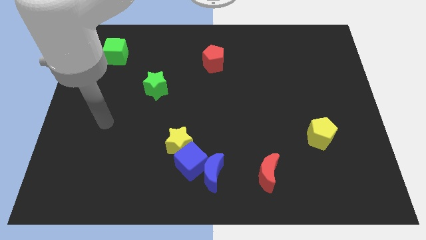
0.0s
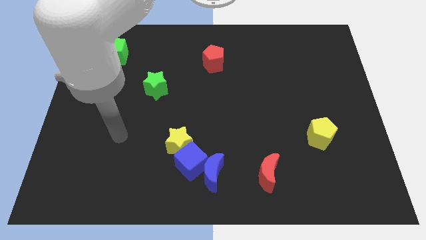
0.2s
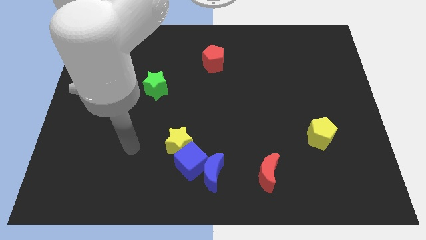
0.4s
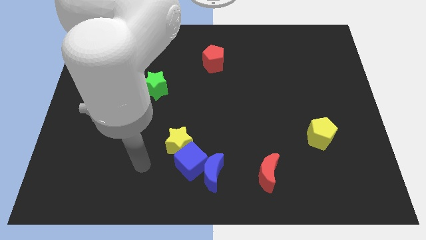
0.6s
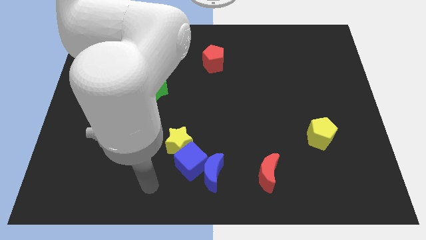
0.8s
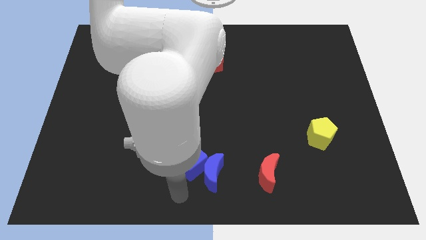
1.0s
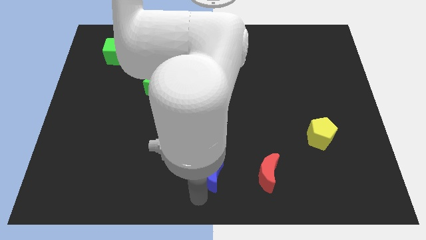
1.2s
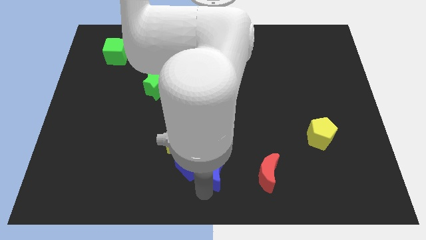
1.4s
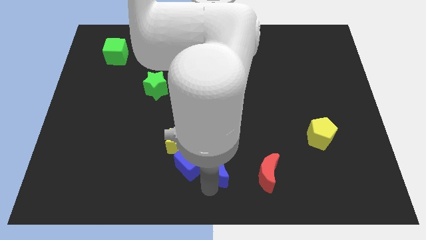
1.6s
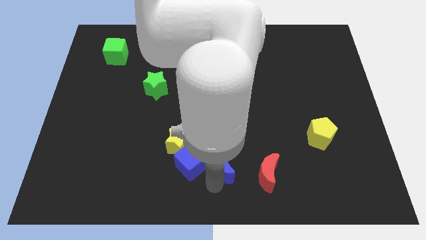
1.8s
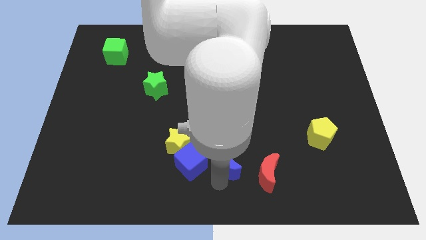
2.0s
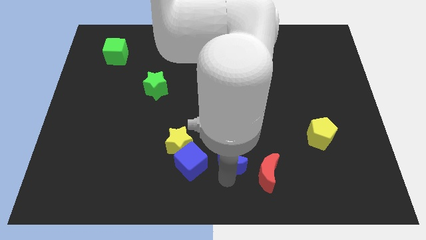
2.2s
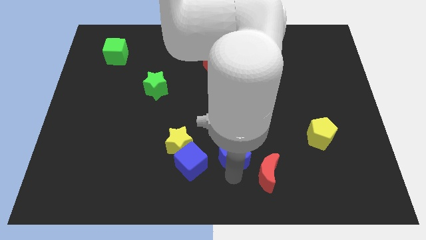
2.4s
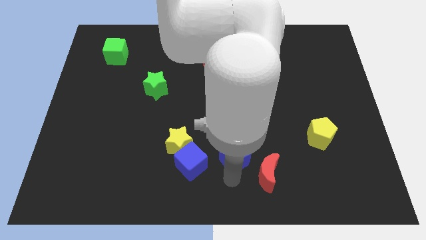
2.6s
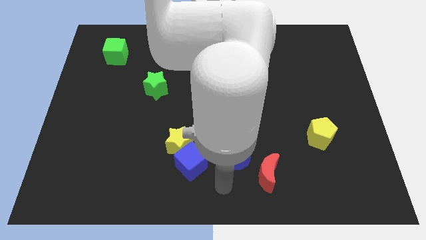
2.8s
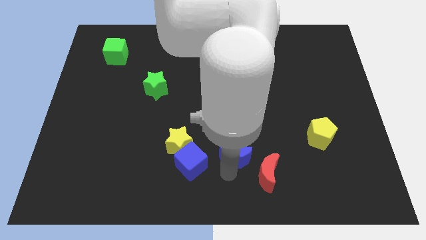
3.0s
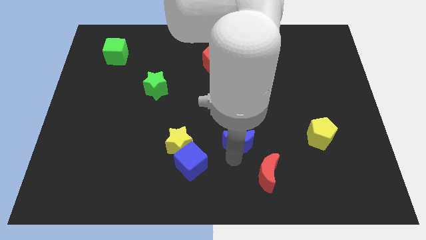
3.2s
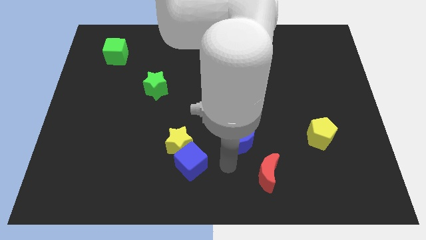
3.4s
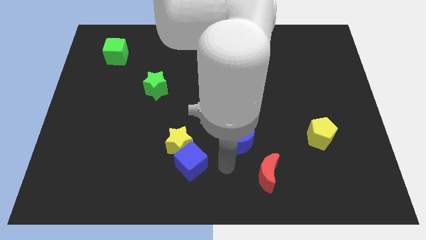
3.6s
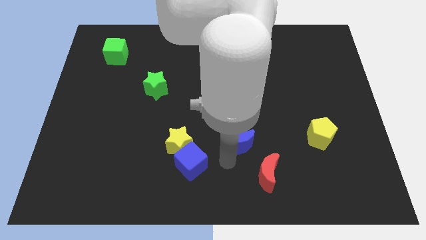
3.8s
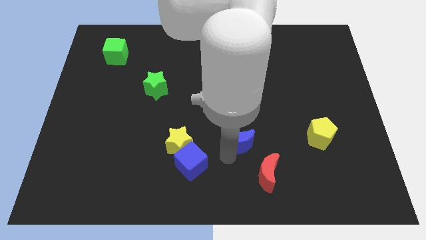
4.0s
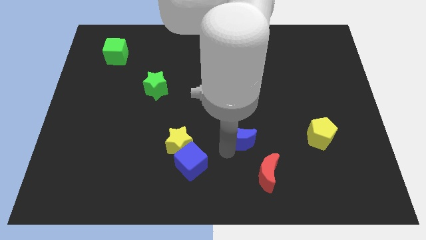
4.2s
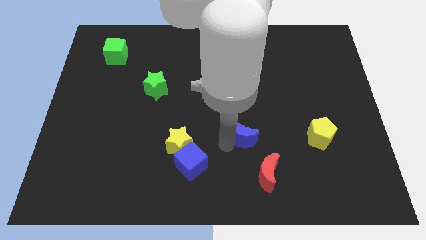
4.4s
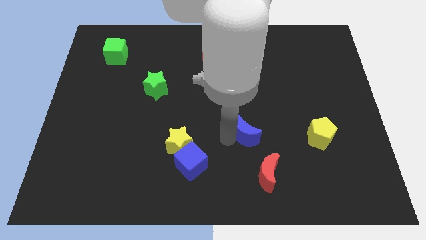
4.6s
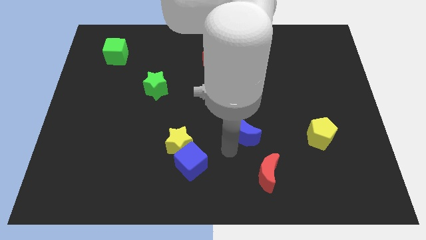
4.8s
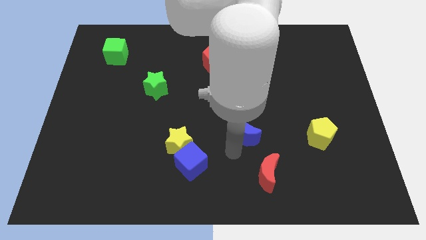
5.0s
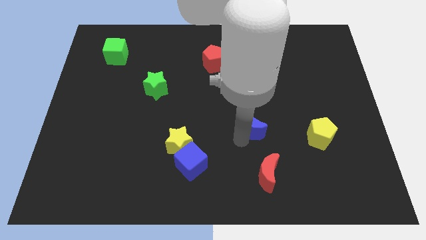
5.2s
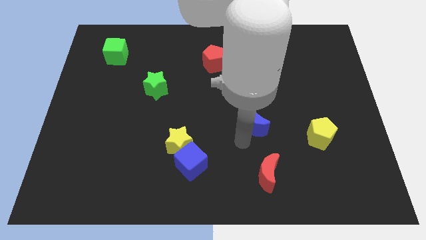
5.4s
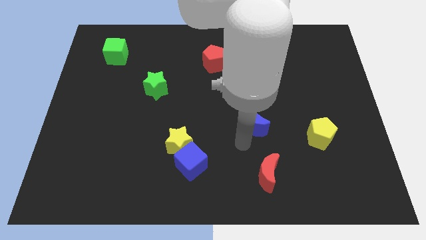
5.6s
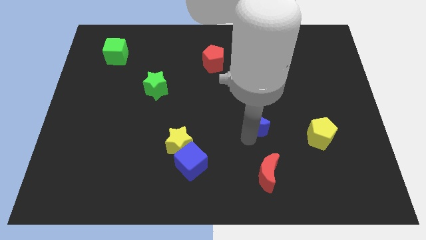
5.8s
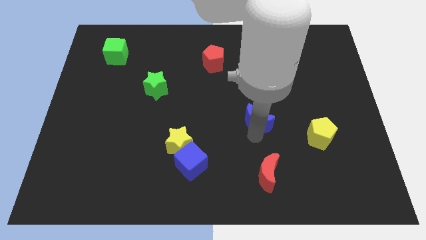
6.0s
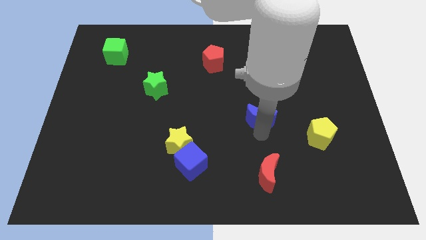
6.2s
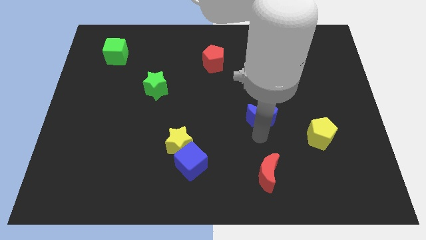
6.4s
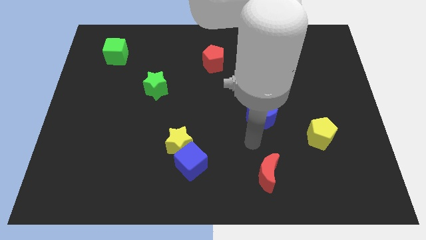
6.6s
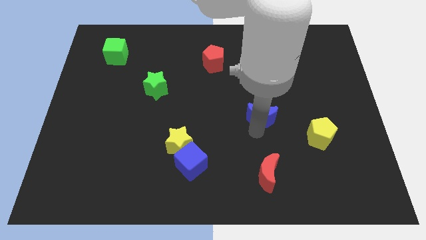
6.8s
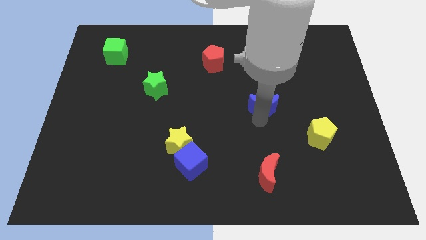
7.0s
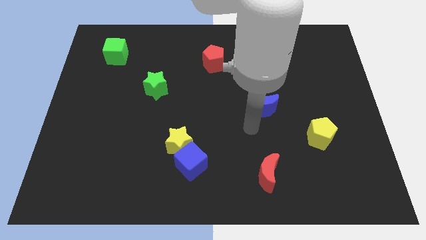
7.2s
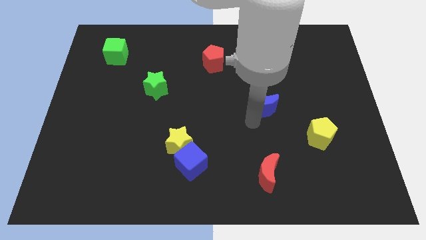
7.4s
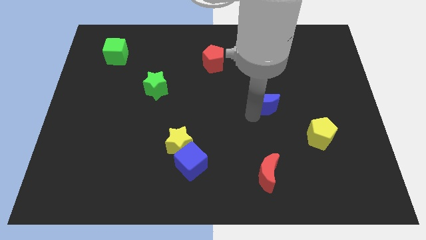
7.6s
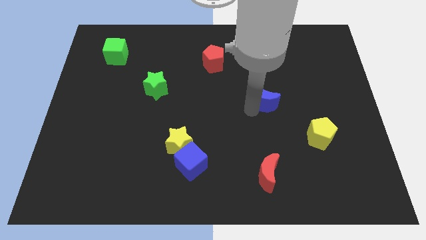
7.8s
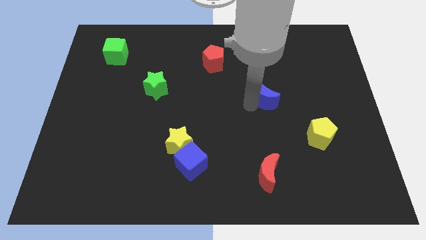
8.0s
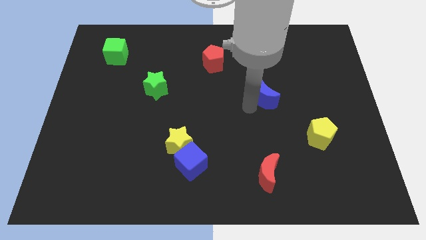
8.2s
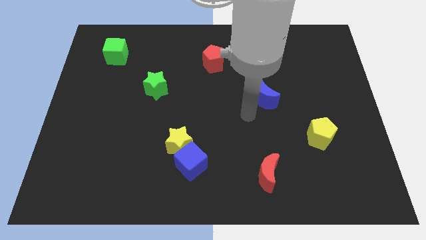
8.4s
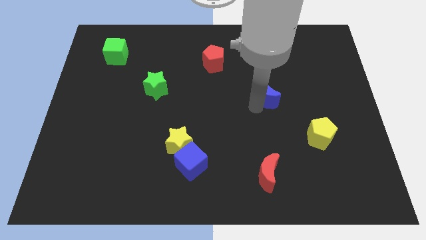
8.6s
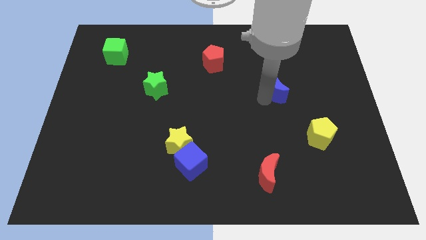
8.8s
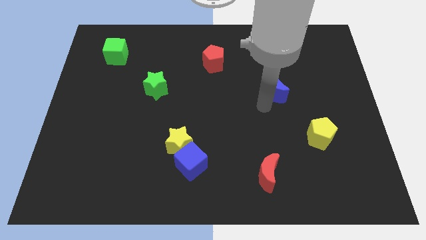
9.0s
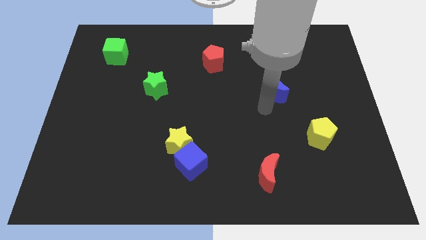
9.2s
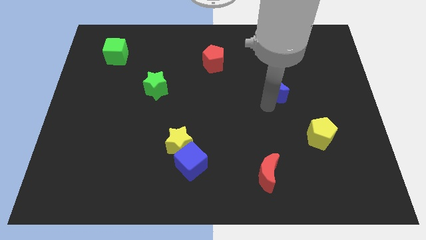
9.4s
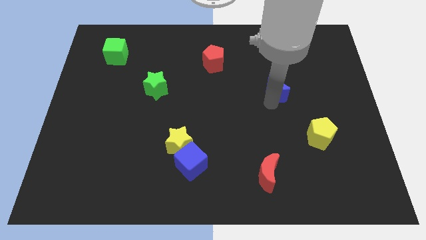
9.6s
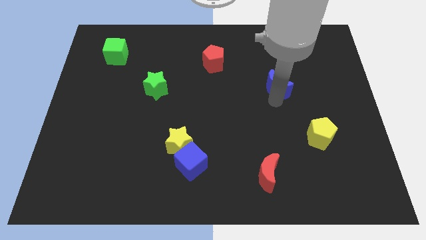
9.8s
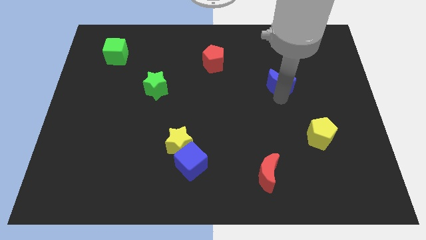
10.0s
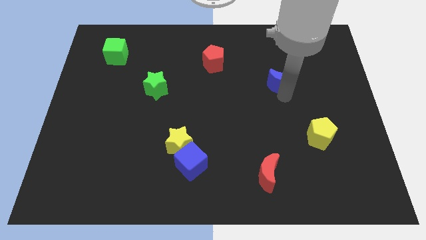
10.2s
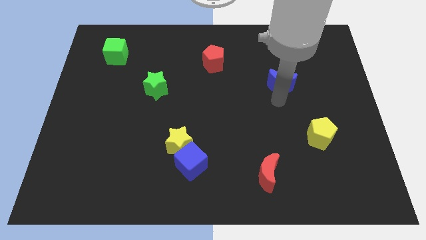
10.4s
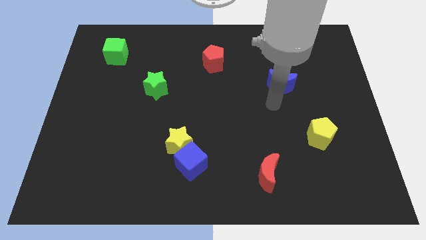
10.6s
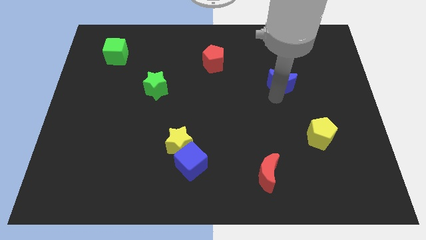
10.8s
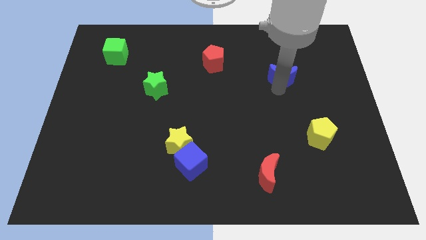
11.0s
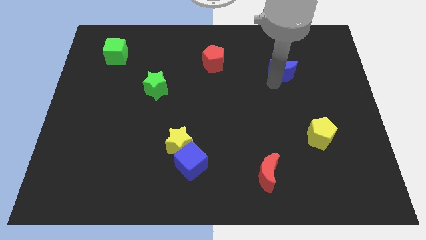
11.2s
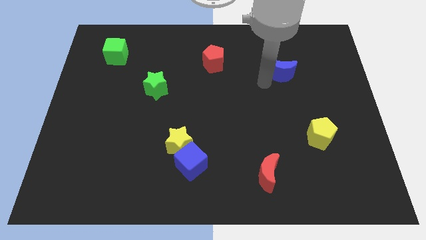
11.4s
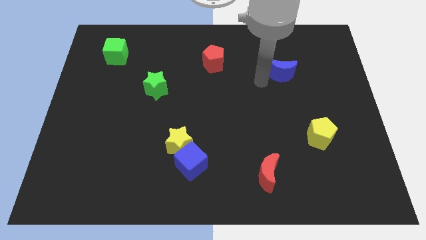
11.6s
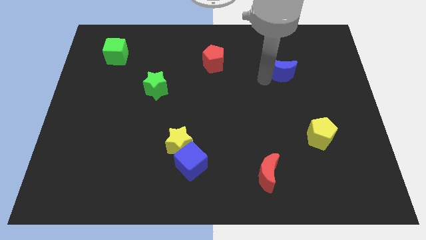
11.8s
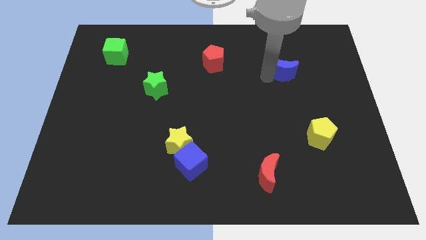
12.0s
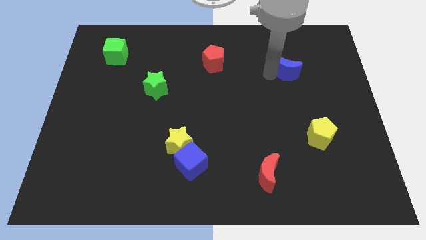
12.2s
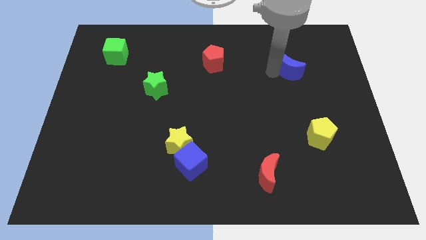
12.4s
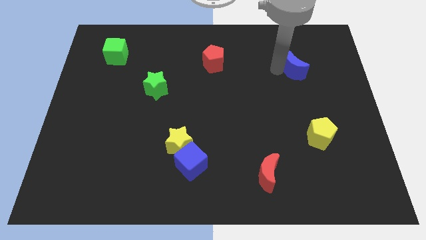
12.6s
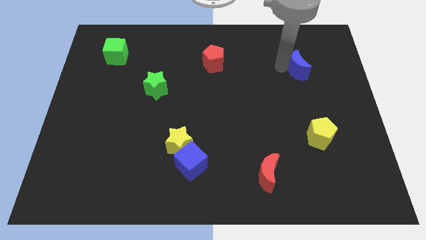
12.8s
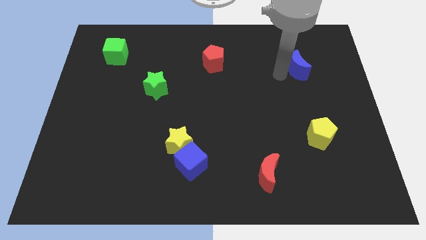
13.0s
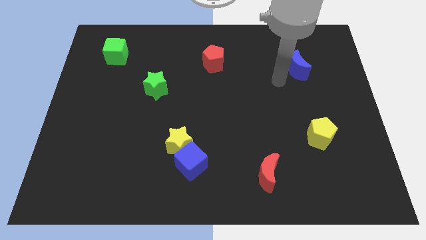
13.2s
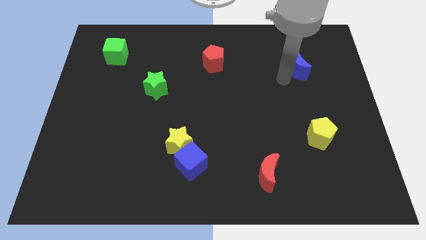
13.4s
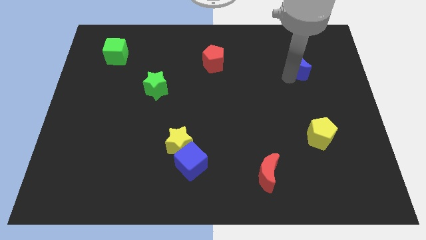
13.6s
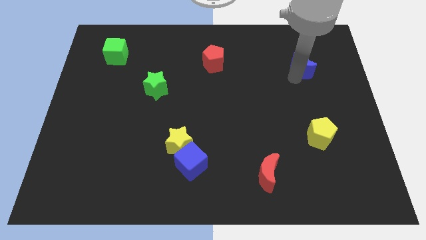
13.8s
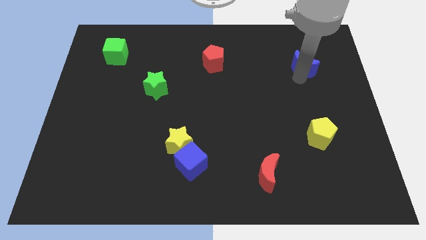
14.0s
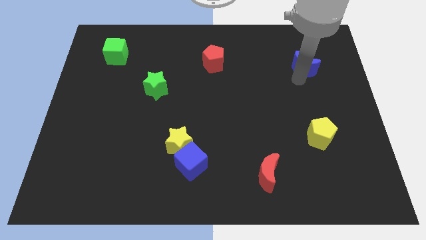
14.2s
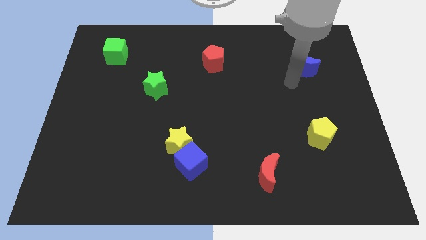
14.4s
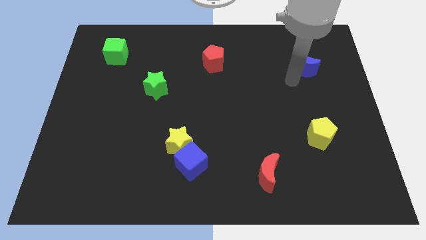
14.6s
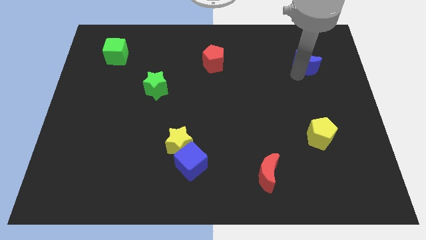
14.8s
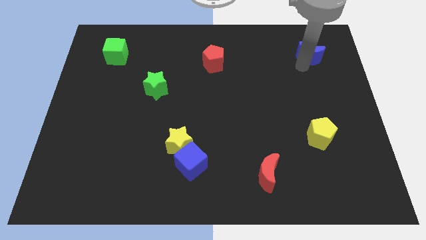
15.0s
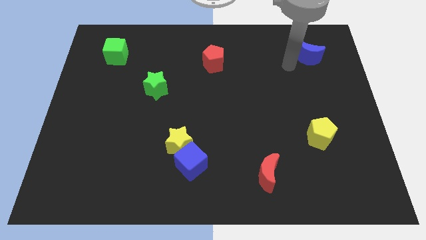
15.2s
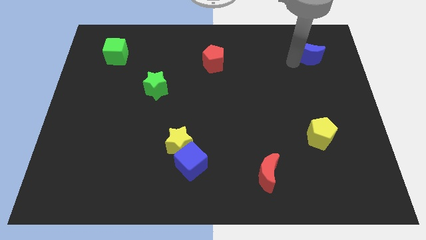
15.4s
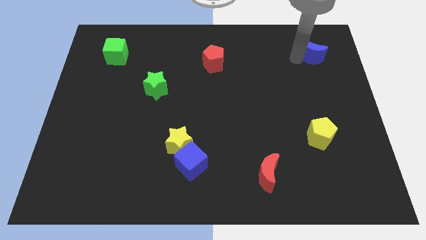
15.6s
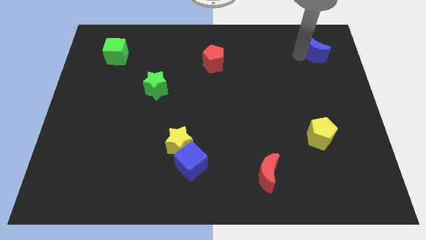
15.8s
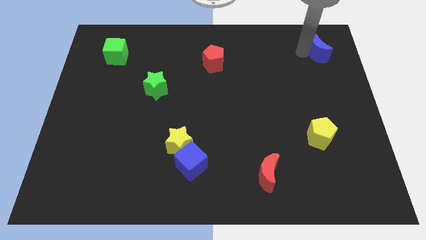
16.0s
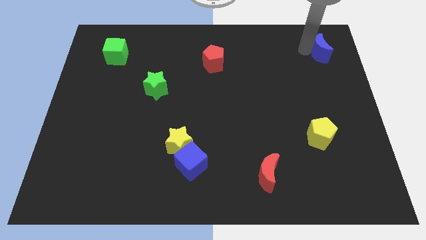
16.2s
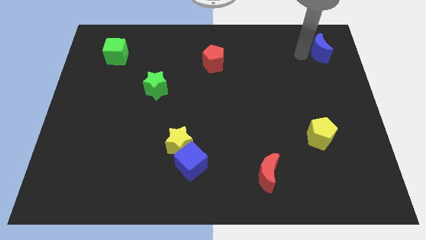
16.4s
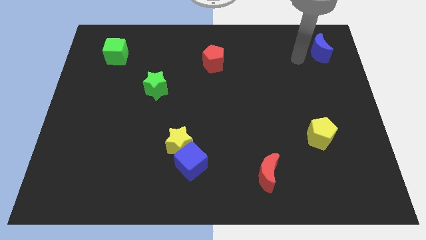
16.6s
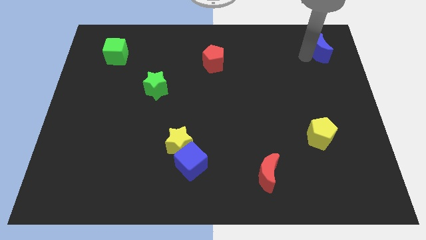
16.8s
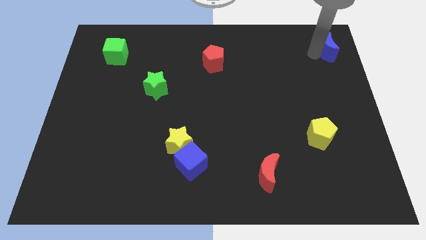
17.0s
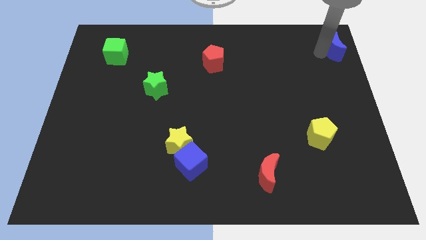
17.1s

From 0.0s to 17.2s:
put the blue moon to the upper right corner
